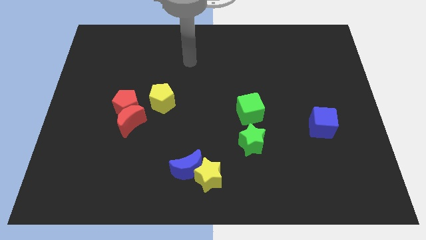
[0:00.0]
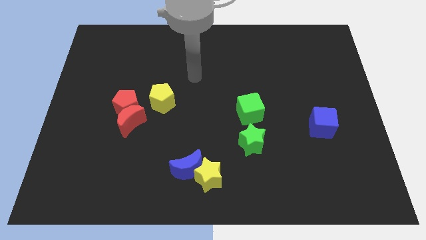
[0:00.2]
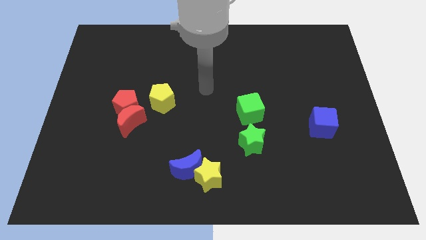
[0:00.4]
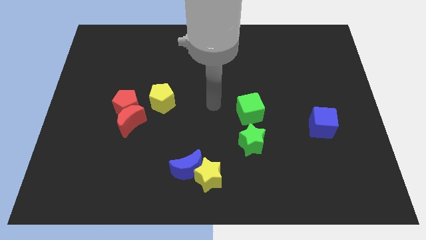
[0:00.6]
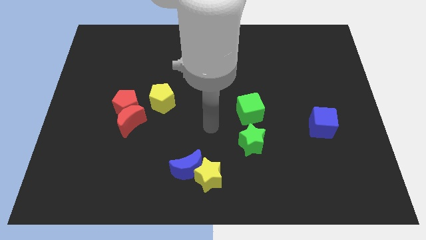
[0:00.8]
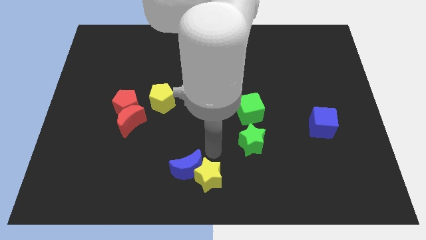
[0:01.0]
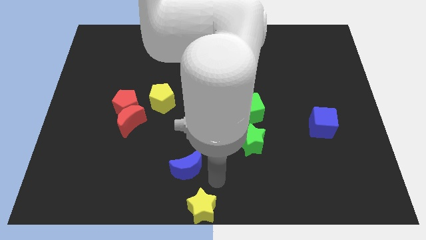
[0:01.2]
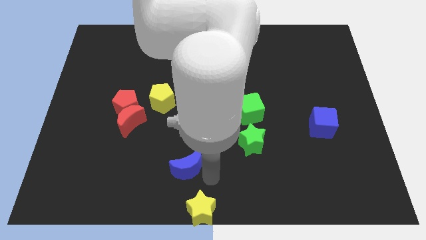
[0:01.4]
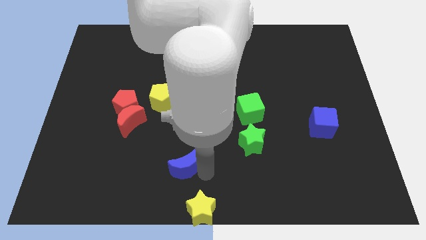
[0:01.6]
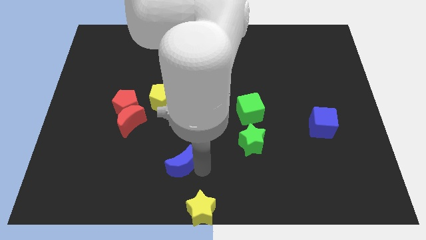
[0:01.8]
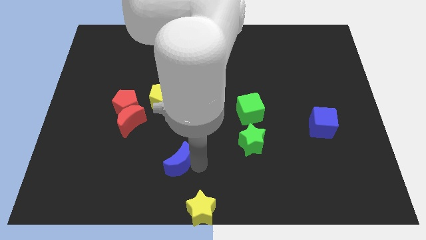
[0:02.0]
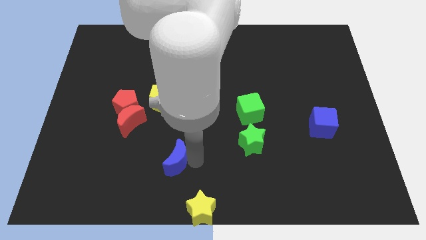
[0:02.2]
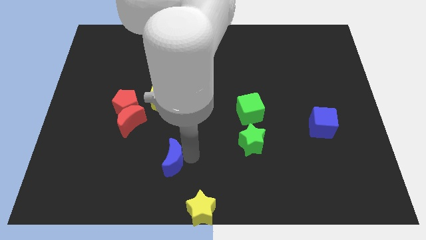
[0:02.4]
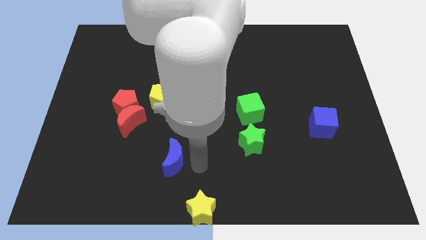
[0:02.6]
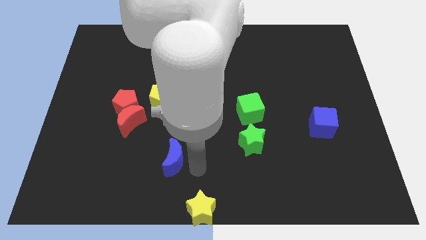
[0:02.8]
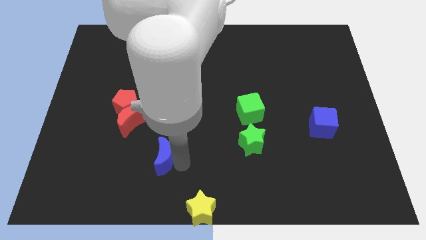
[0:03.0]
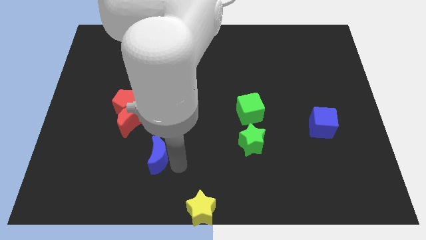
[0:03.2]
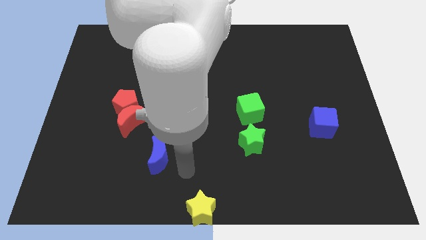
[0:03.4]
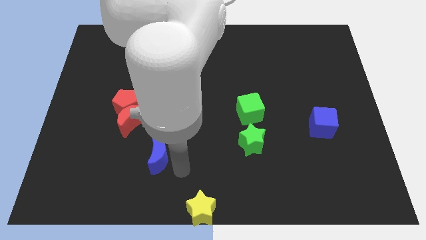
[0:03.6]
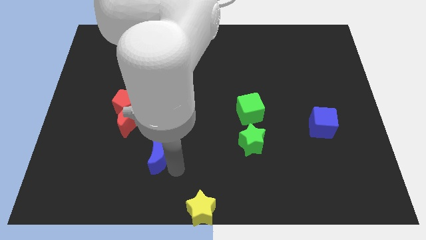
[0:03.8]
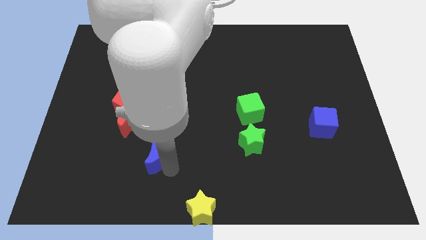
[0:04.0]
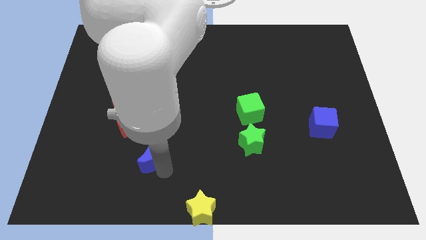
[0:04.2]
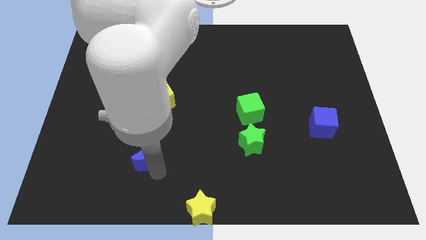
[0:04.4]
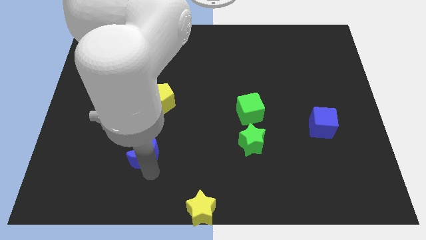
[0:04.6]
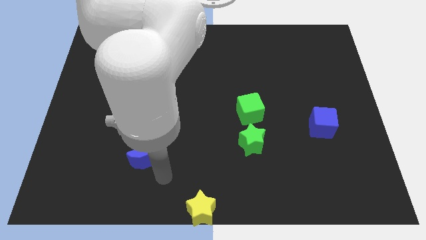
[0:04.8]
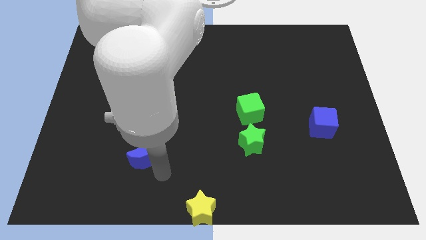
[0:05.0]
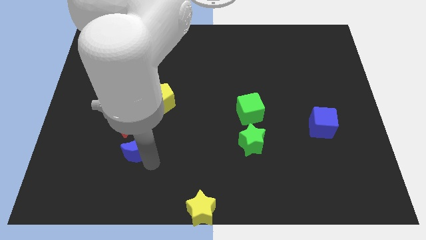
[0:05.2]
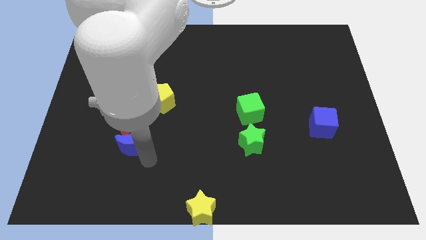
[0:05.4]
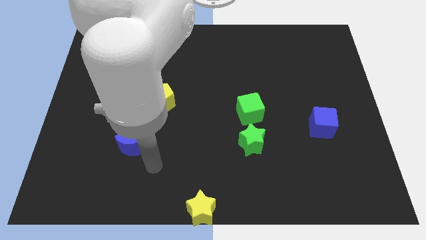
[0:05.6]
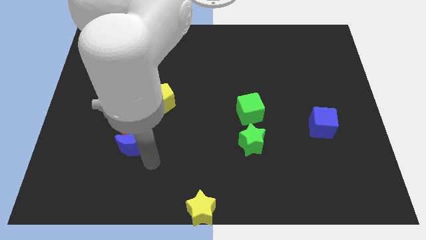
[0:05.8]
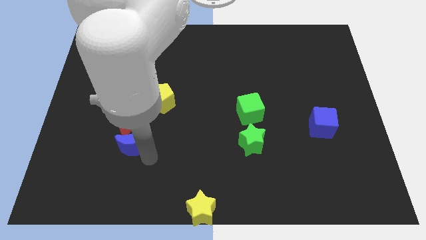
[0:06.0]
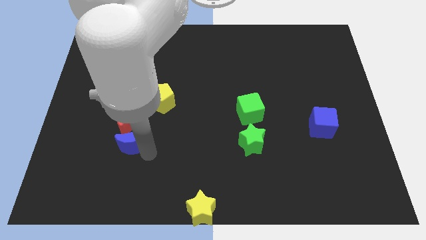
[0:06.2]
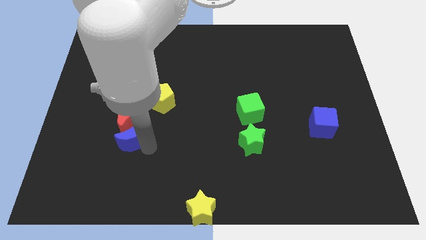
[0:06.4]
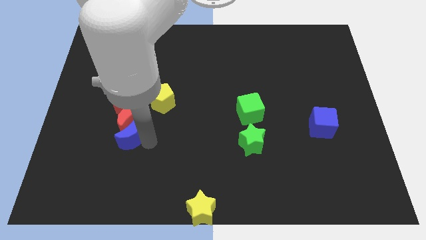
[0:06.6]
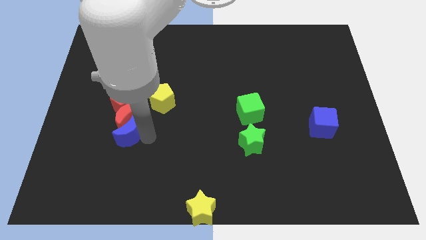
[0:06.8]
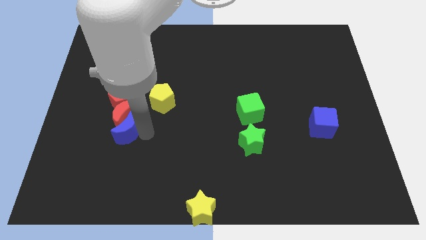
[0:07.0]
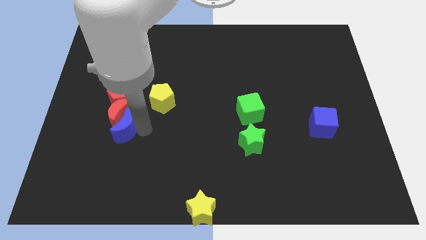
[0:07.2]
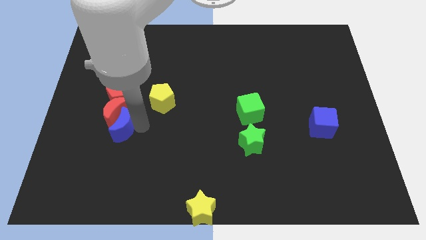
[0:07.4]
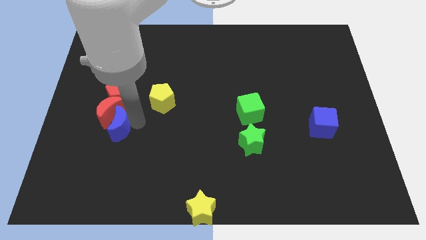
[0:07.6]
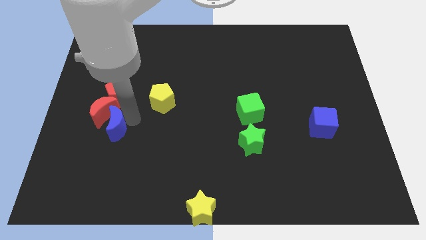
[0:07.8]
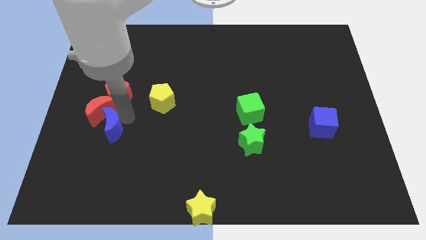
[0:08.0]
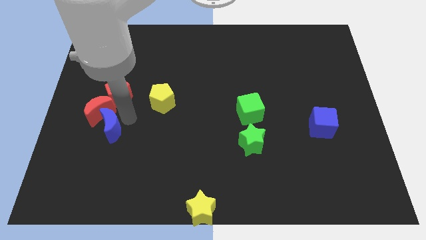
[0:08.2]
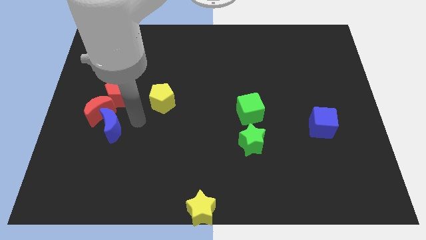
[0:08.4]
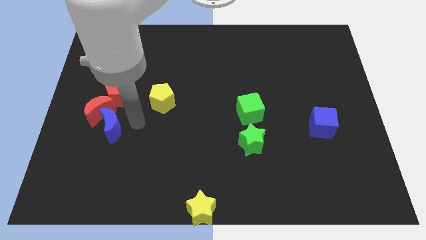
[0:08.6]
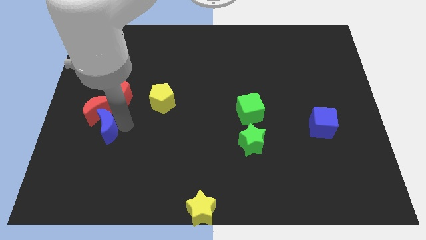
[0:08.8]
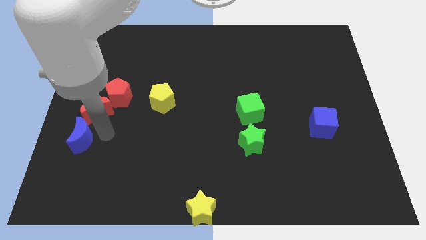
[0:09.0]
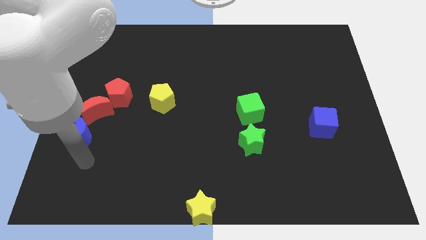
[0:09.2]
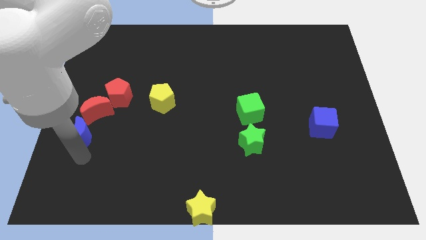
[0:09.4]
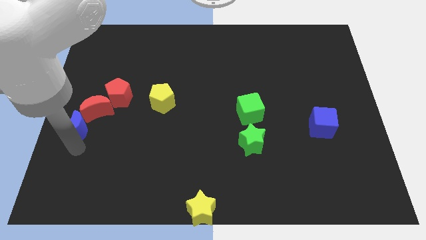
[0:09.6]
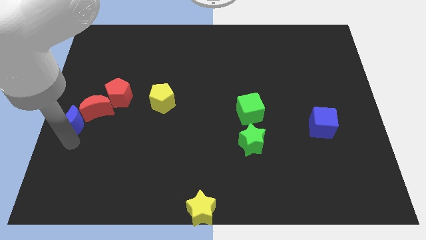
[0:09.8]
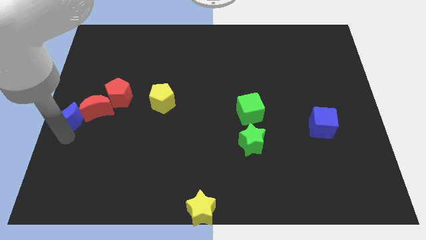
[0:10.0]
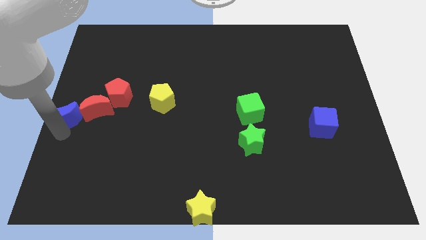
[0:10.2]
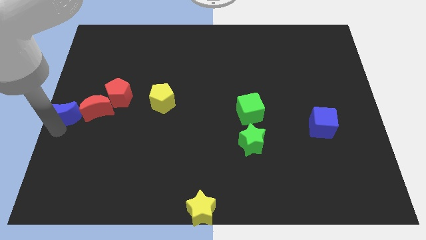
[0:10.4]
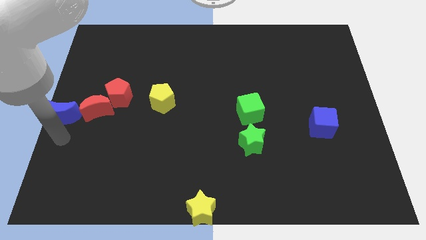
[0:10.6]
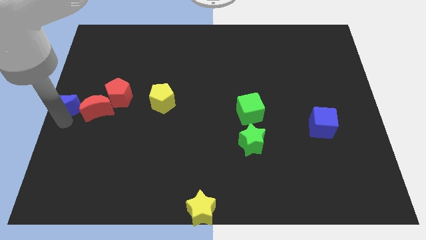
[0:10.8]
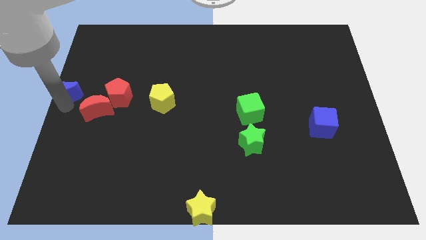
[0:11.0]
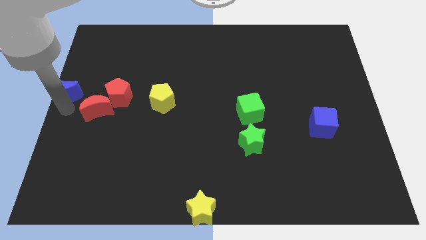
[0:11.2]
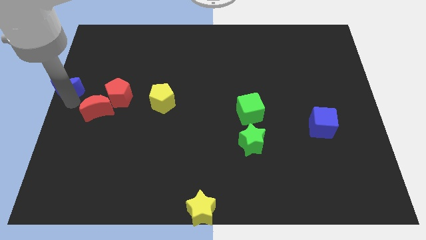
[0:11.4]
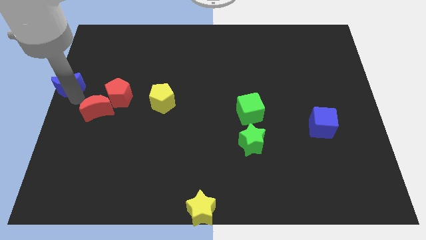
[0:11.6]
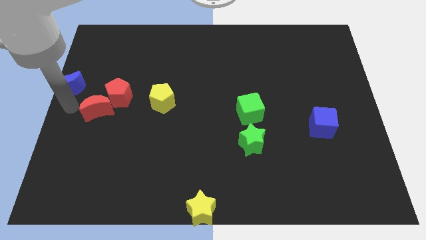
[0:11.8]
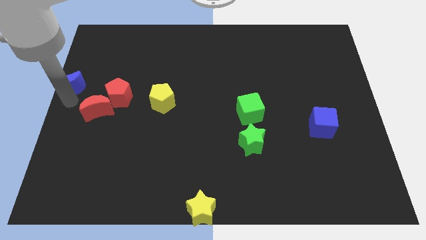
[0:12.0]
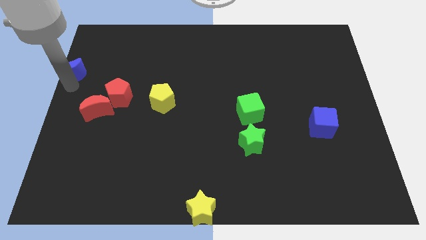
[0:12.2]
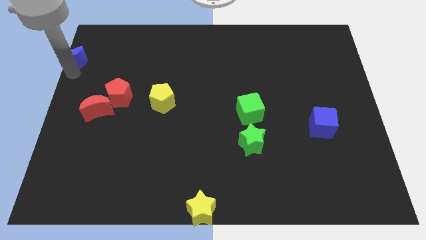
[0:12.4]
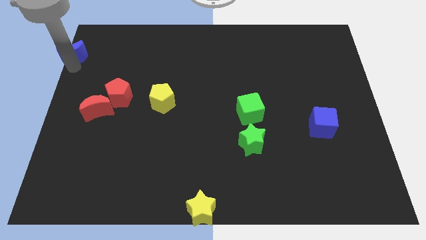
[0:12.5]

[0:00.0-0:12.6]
slide the blue moon to the top left corner
